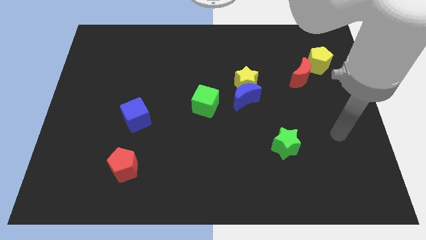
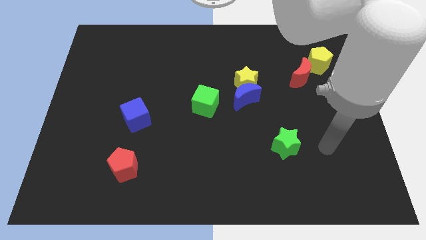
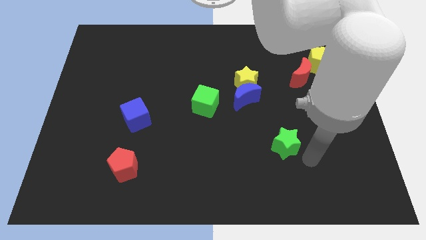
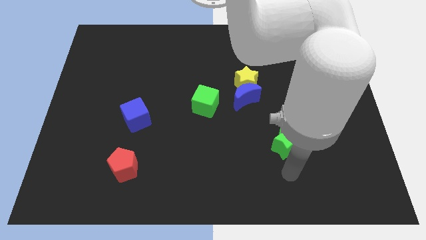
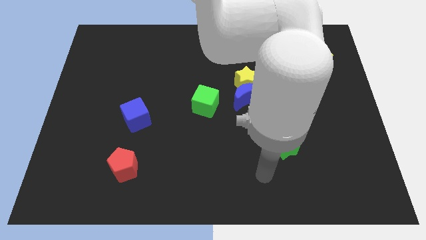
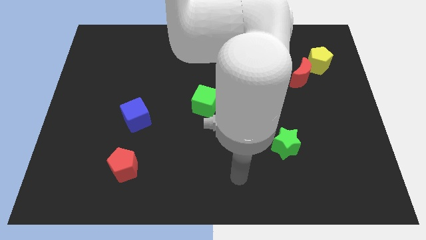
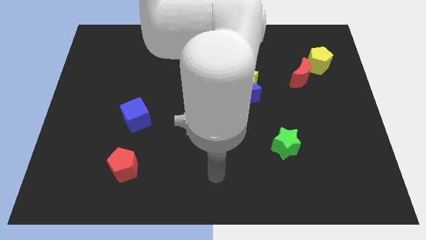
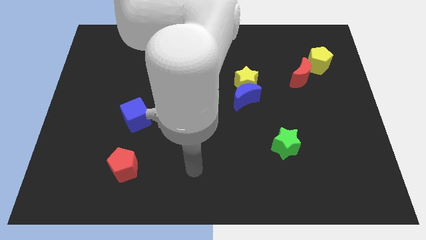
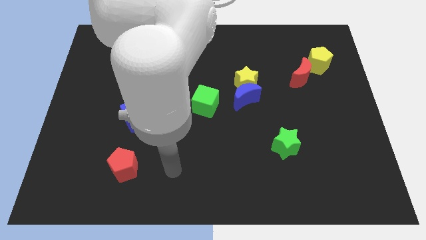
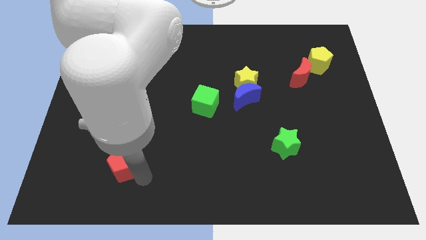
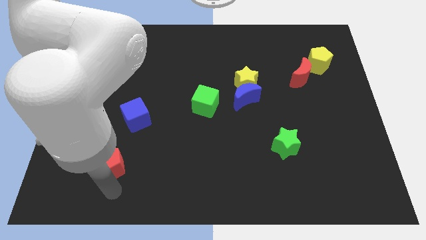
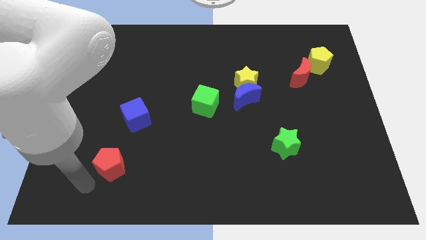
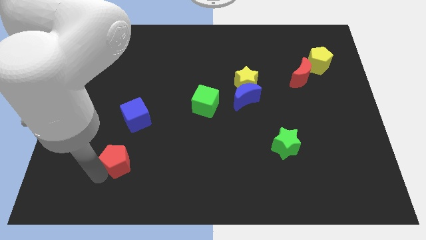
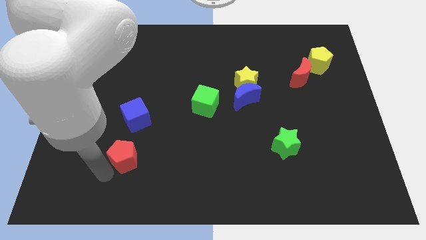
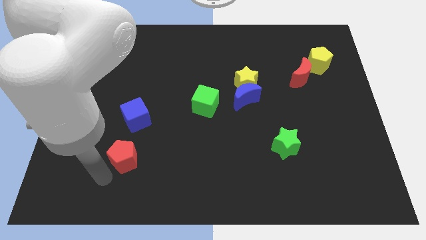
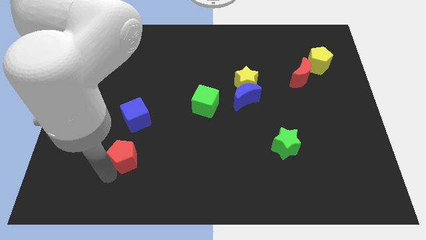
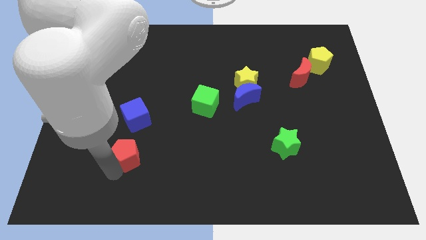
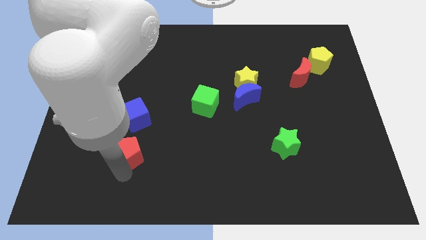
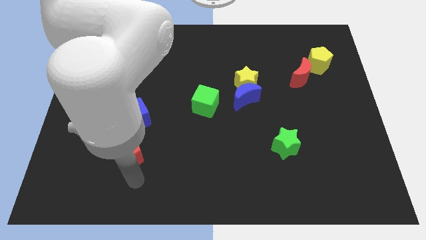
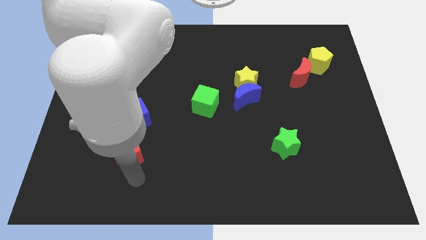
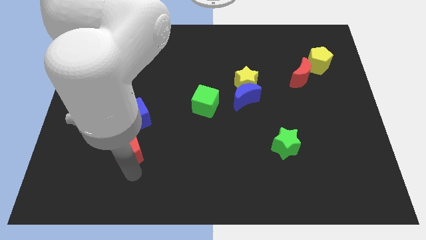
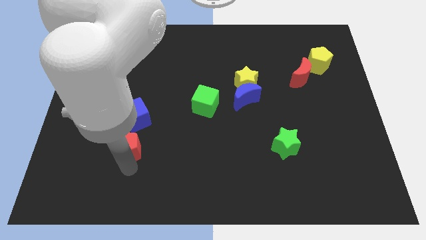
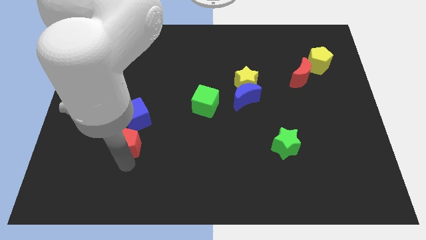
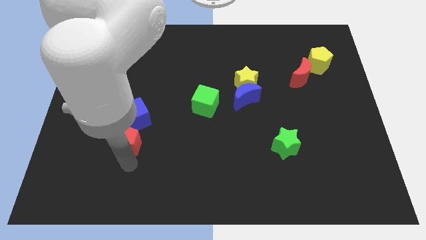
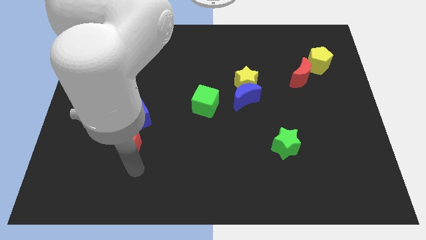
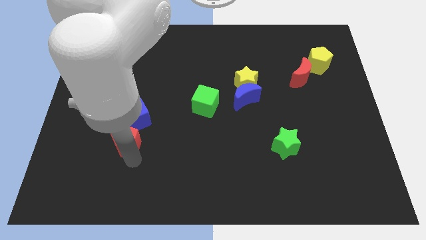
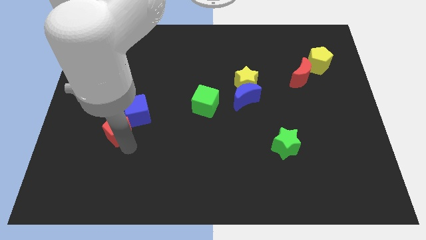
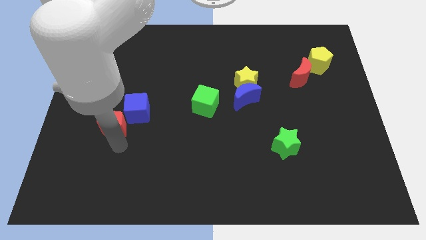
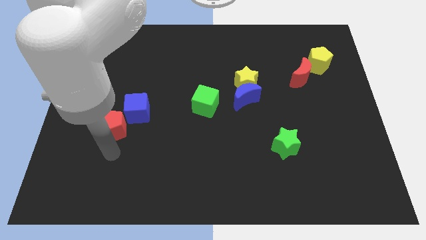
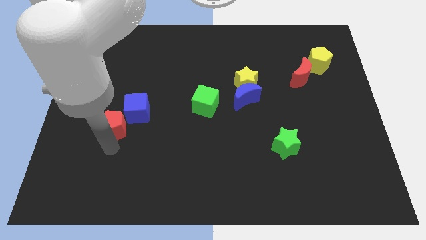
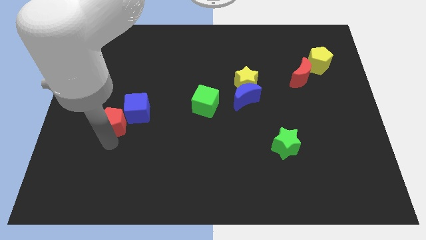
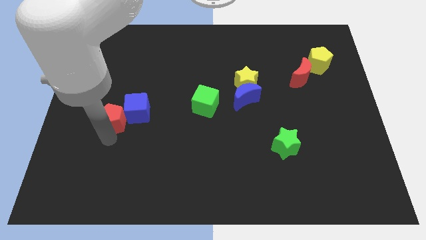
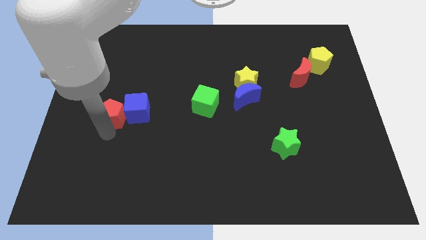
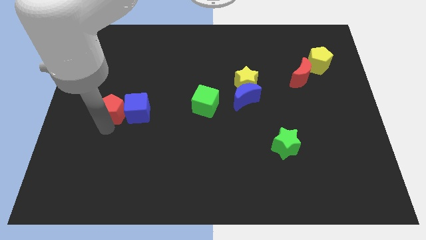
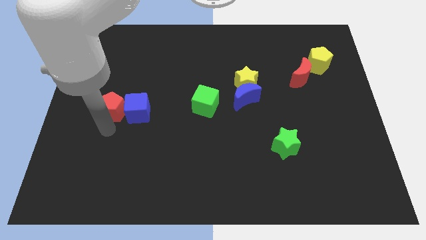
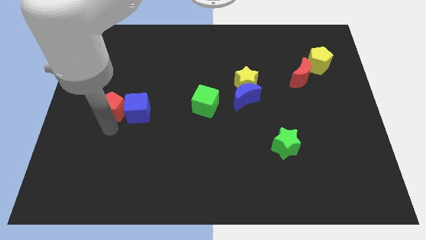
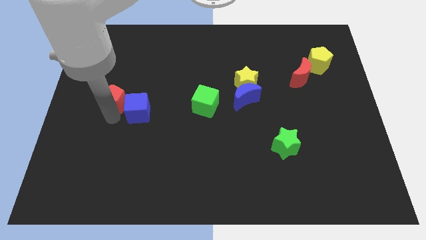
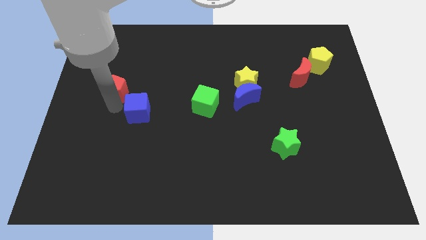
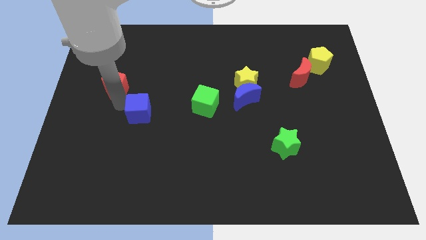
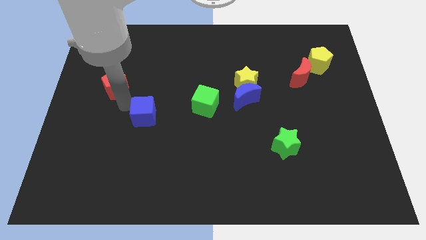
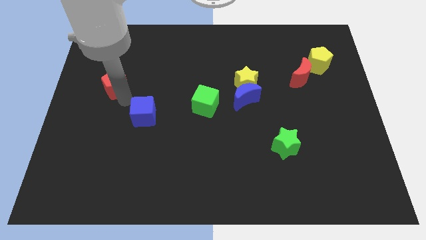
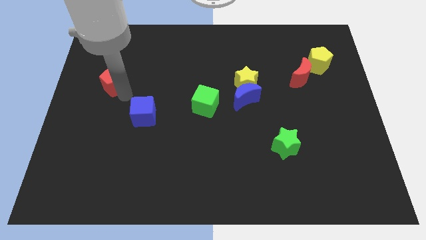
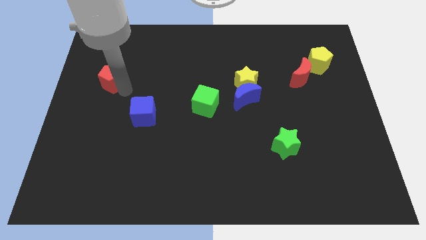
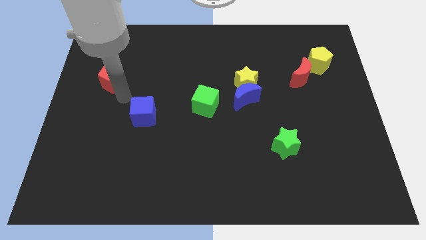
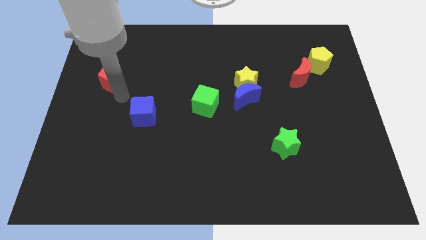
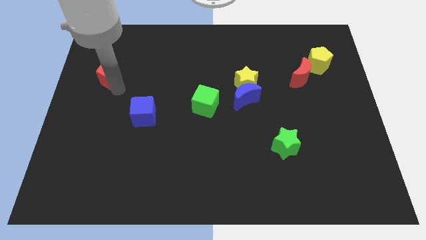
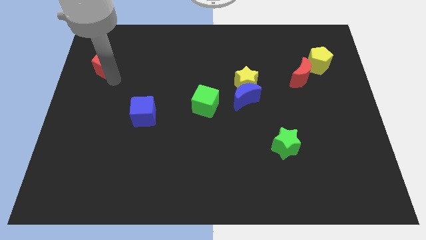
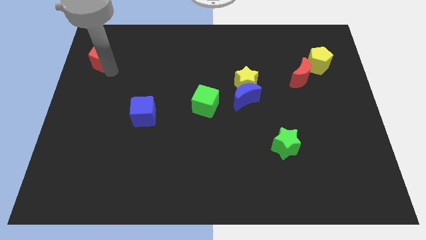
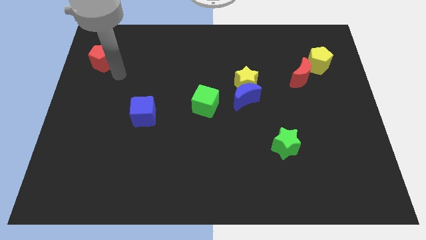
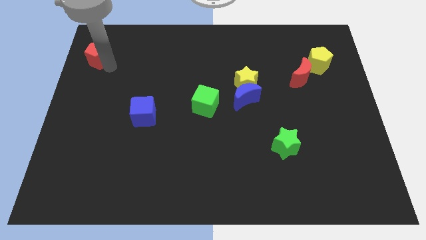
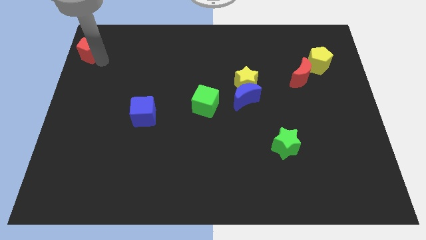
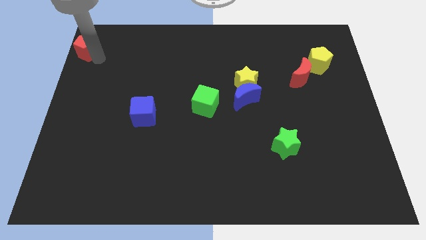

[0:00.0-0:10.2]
slide the red pentagon to the top left corner

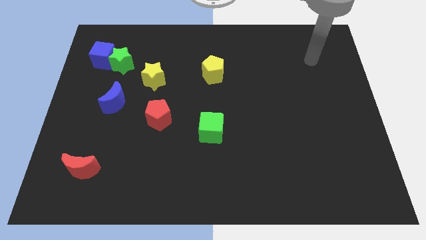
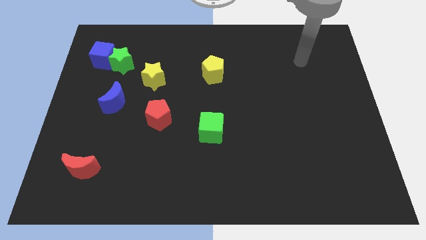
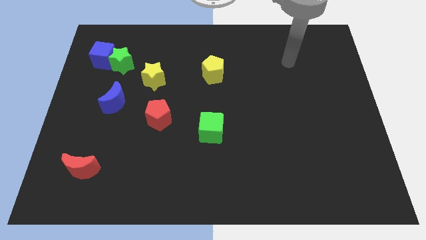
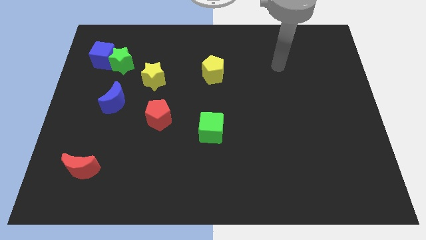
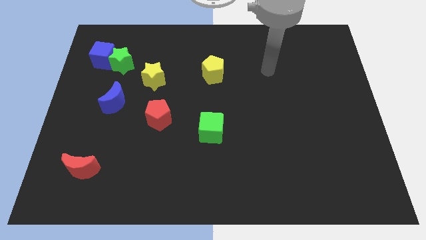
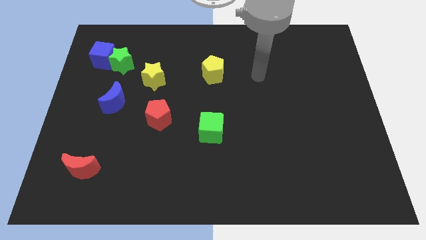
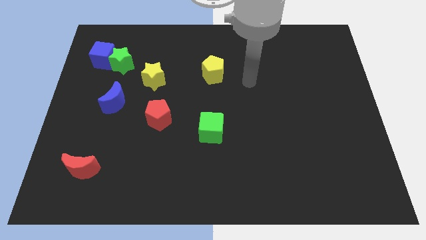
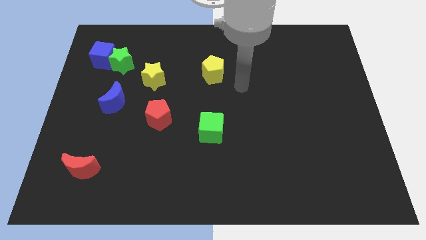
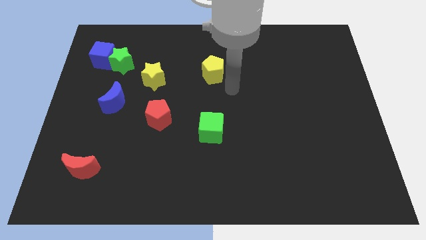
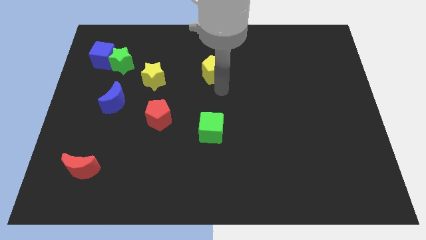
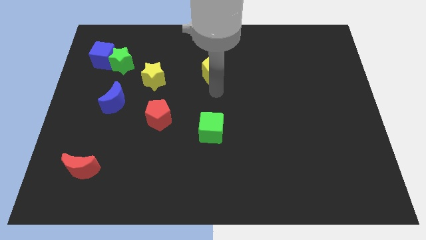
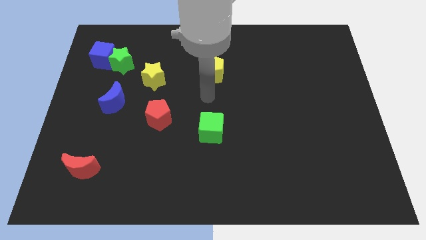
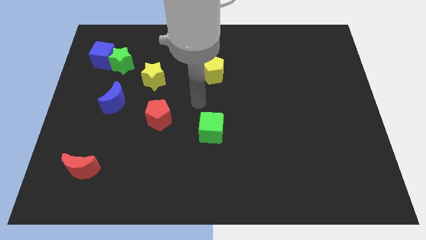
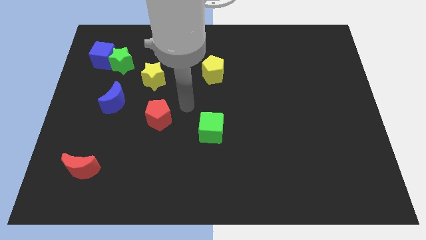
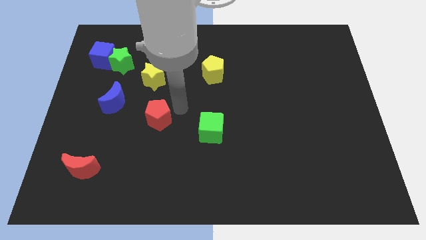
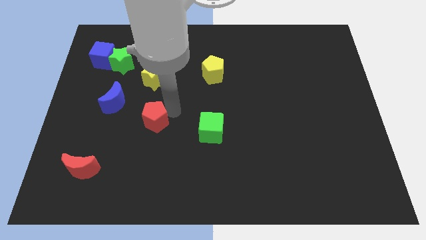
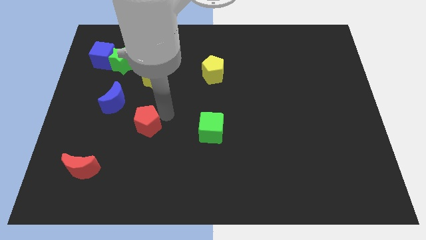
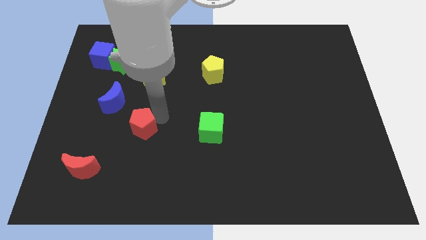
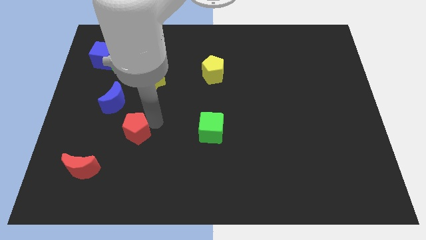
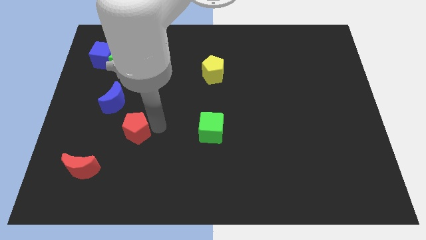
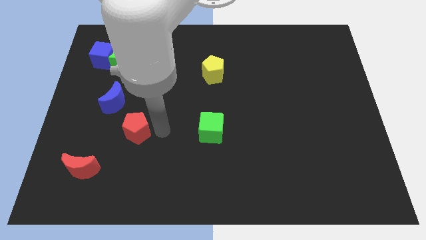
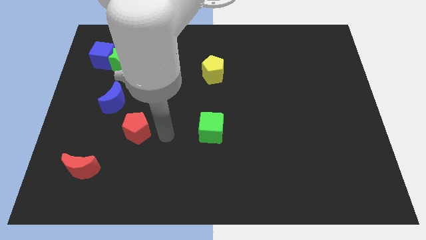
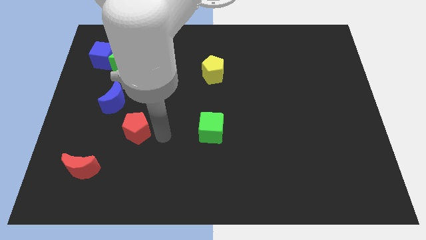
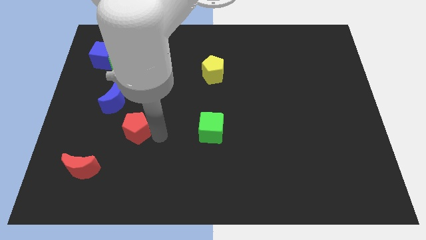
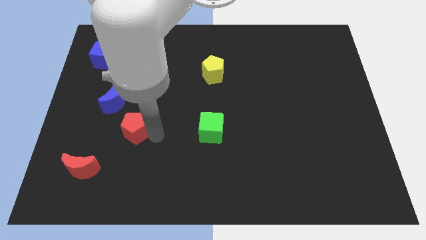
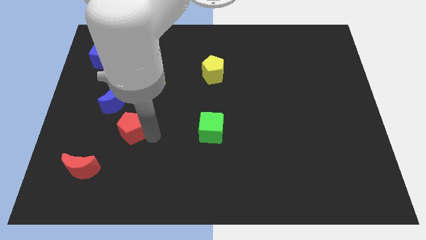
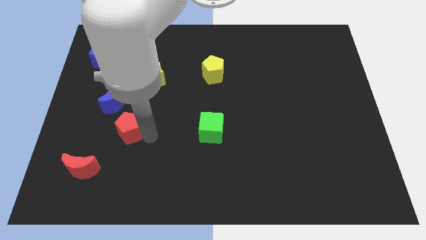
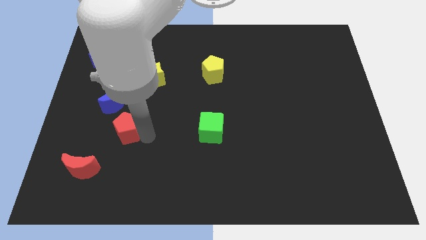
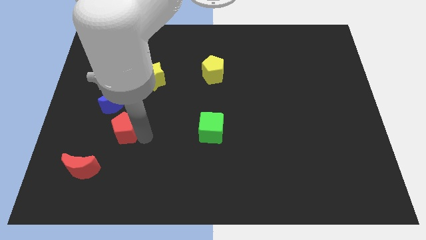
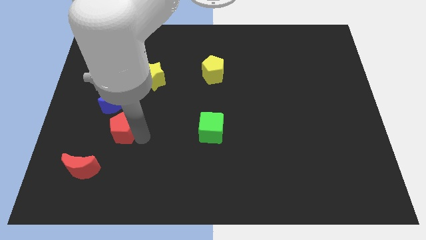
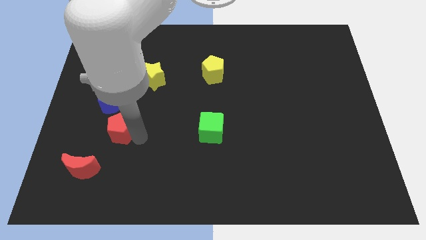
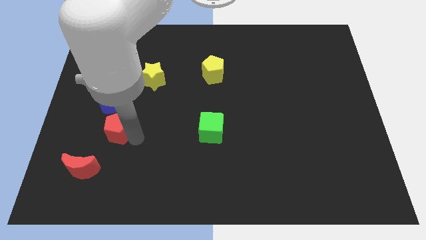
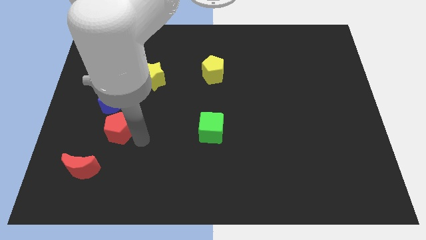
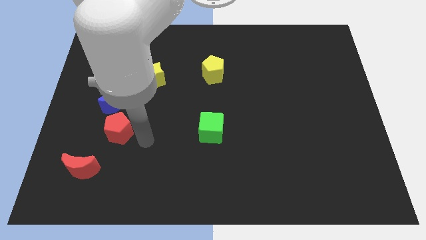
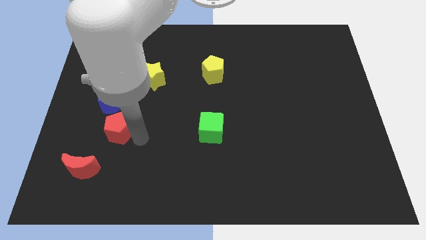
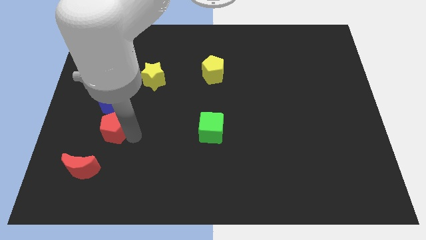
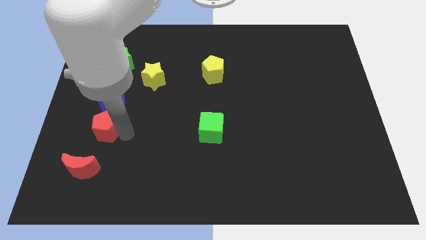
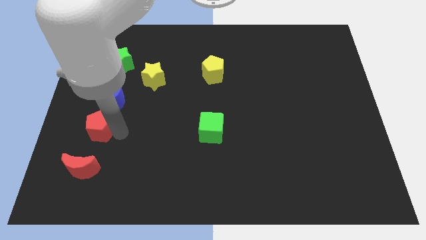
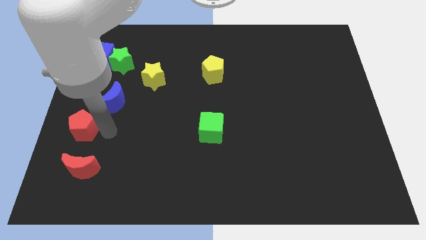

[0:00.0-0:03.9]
slide the red pentagon to the center left
